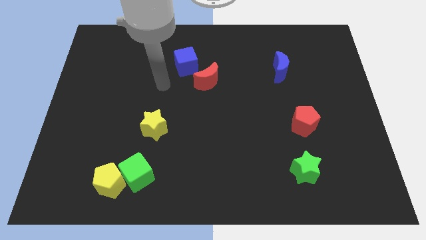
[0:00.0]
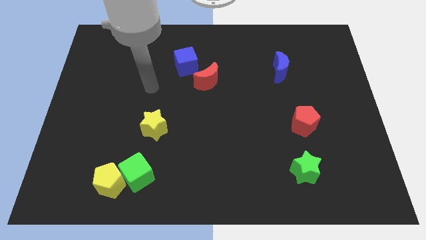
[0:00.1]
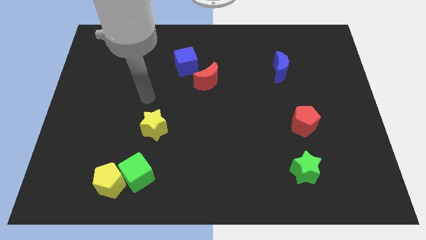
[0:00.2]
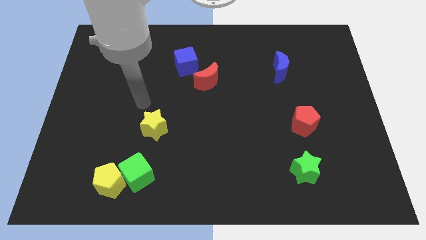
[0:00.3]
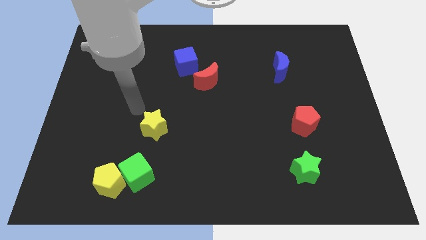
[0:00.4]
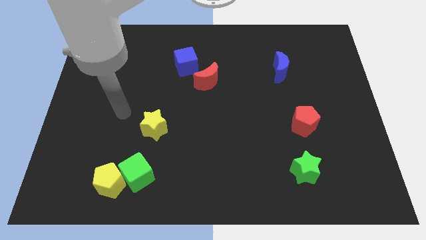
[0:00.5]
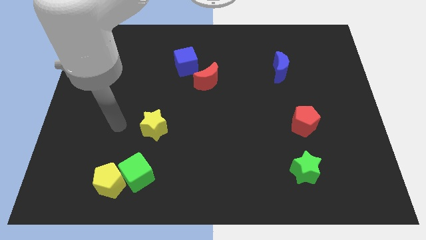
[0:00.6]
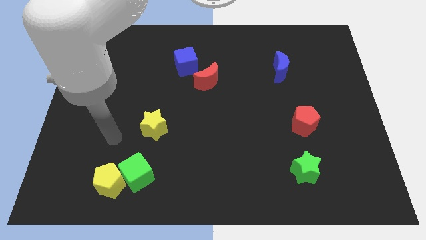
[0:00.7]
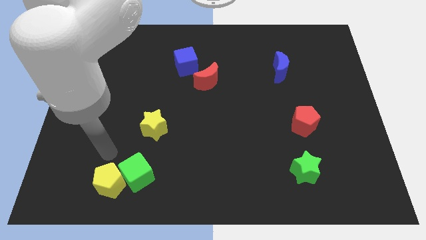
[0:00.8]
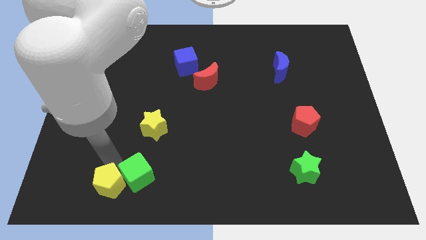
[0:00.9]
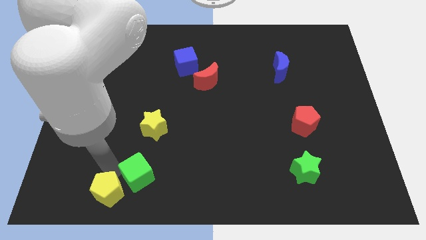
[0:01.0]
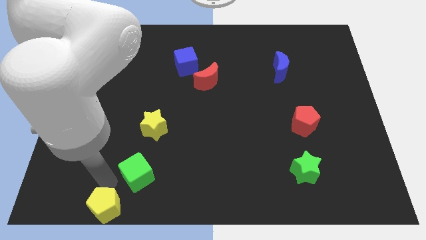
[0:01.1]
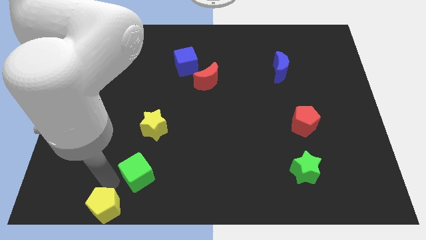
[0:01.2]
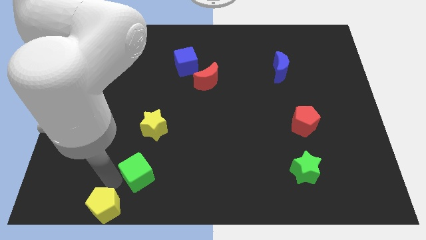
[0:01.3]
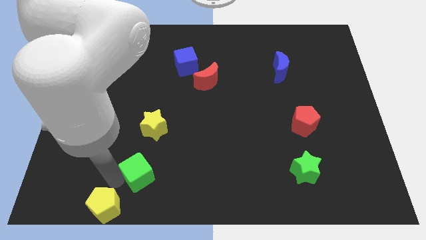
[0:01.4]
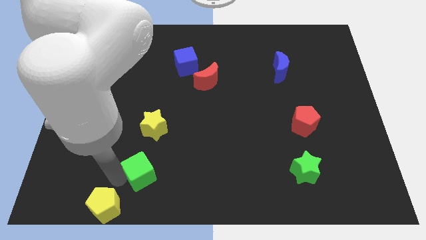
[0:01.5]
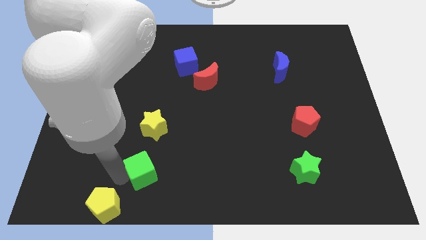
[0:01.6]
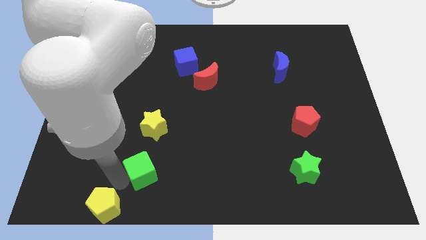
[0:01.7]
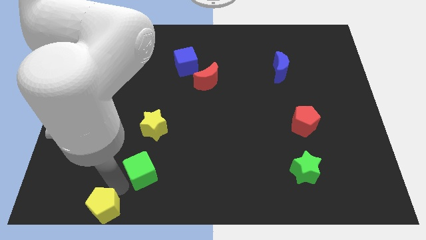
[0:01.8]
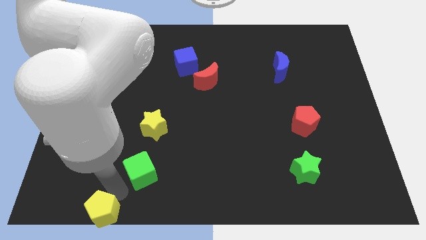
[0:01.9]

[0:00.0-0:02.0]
move the green cube away from the yellow pentagon

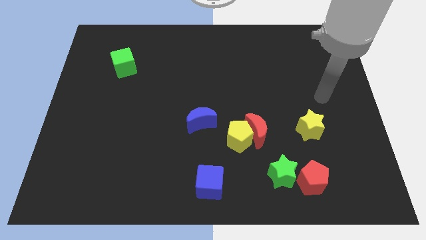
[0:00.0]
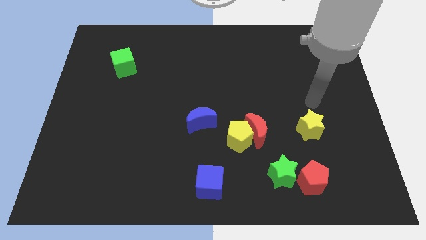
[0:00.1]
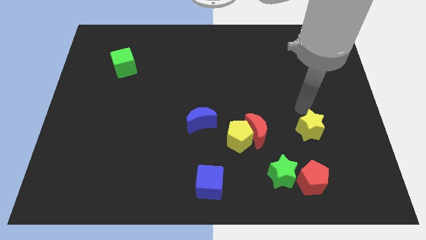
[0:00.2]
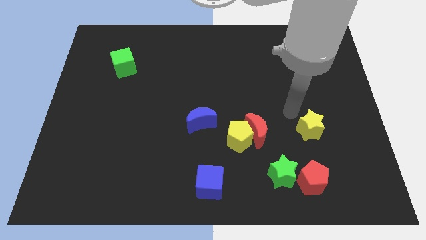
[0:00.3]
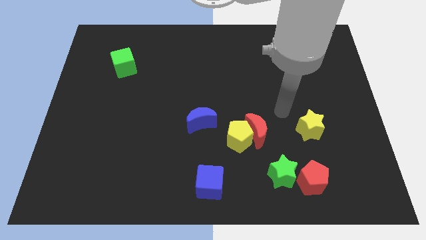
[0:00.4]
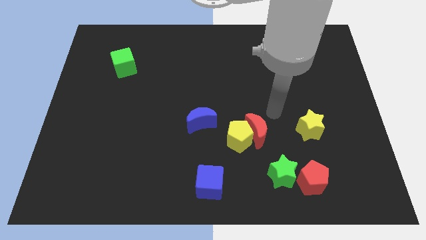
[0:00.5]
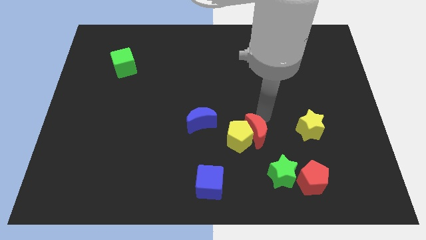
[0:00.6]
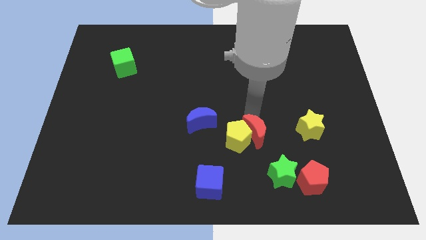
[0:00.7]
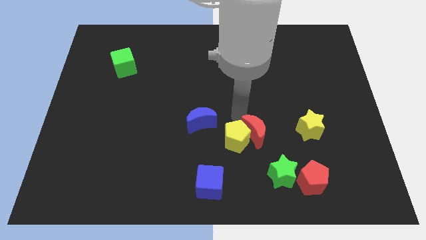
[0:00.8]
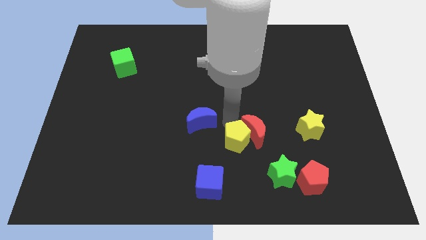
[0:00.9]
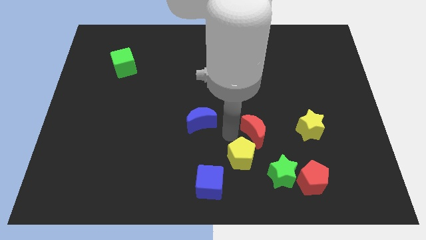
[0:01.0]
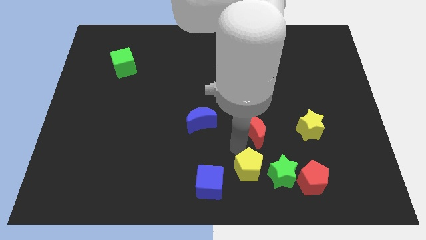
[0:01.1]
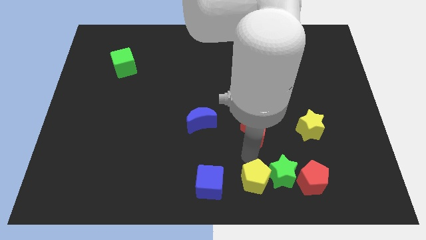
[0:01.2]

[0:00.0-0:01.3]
separate the red moon from the yellow pentagon

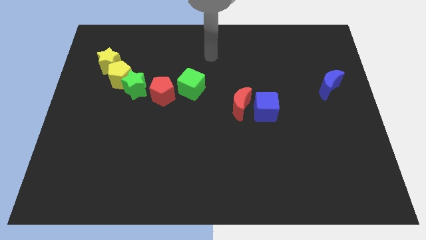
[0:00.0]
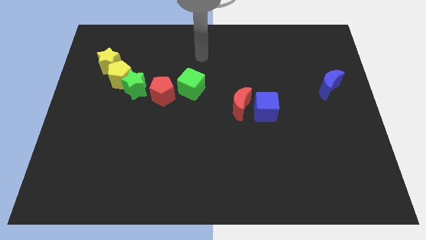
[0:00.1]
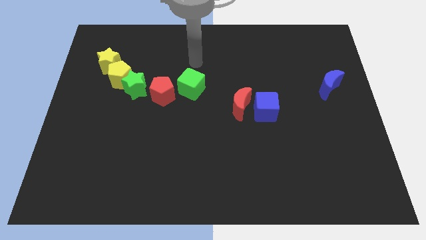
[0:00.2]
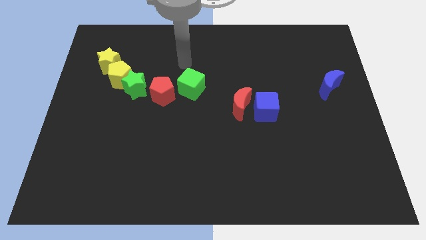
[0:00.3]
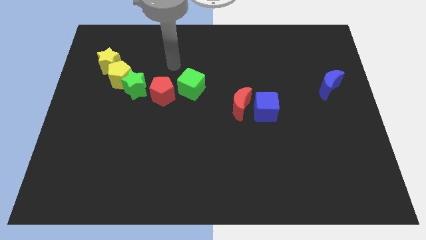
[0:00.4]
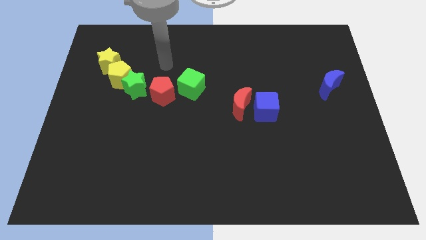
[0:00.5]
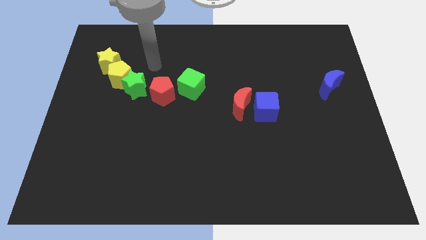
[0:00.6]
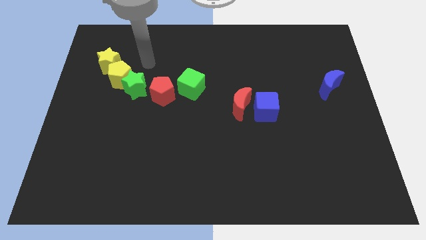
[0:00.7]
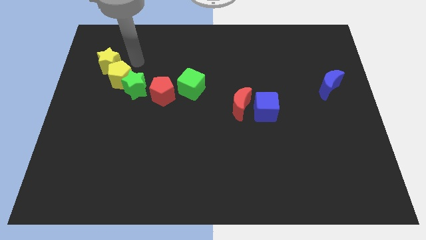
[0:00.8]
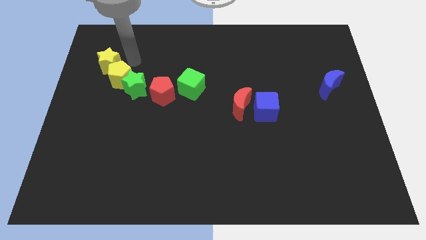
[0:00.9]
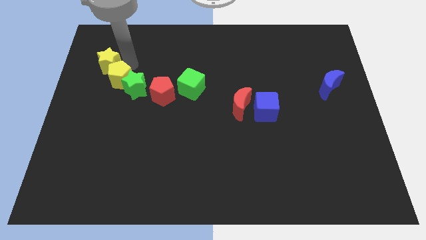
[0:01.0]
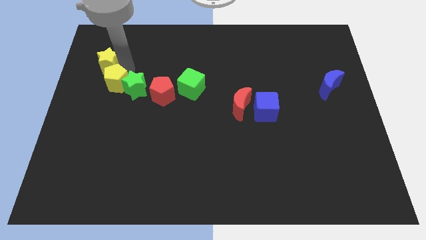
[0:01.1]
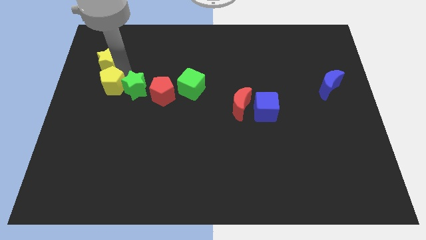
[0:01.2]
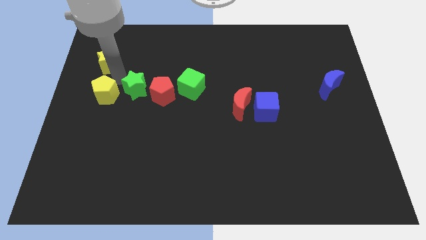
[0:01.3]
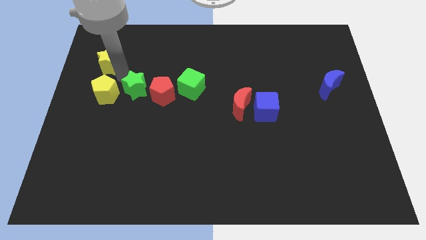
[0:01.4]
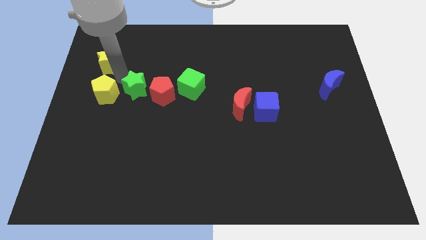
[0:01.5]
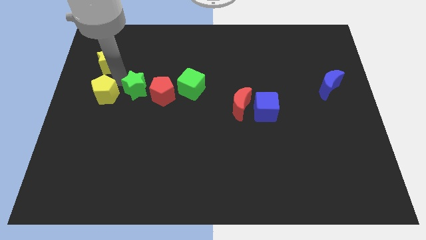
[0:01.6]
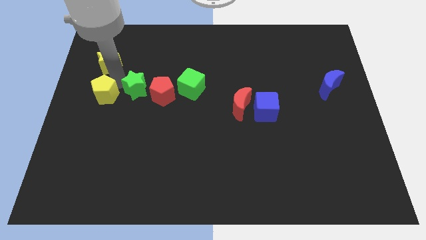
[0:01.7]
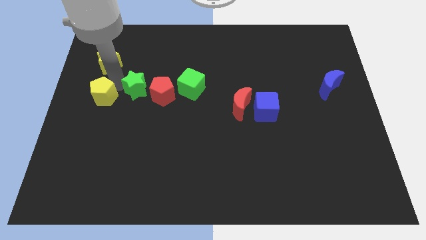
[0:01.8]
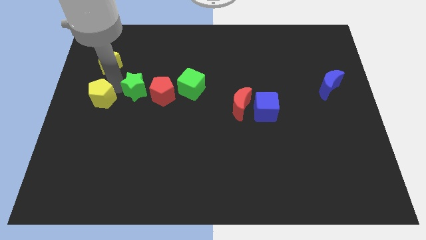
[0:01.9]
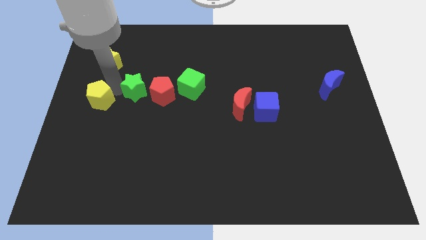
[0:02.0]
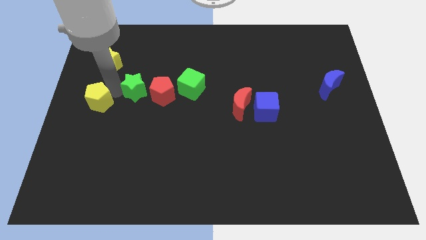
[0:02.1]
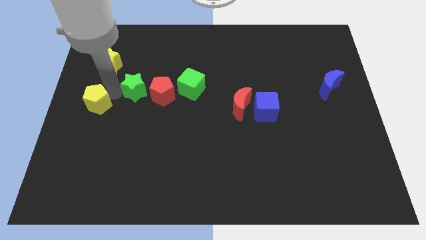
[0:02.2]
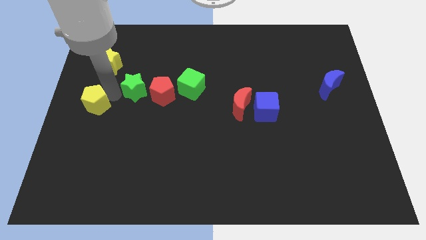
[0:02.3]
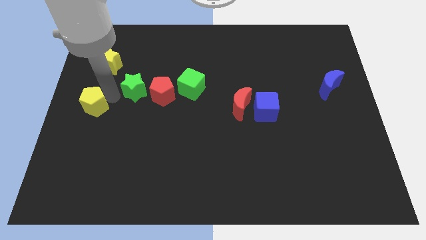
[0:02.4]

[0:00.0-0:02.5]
separate the yellow pentagon from the green star and yellow star

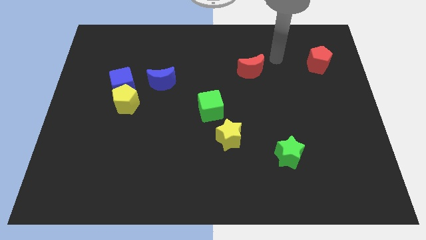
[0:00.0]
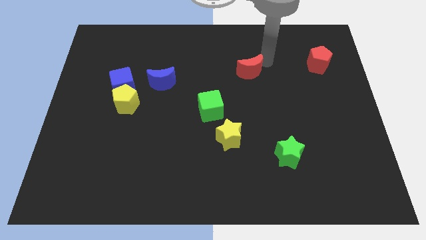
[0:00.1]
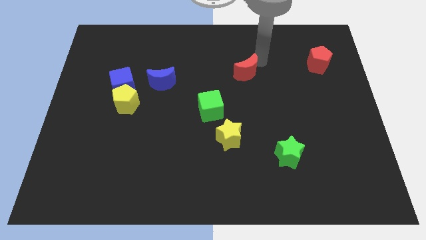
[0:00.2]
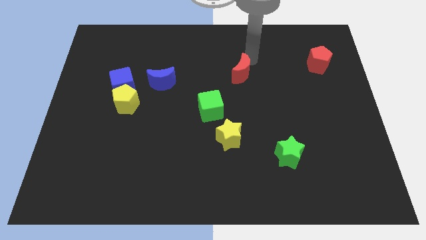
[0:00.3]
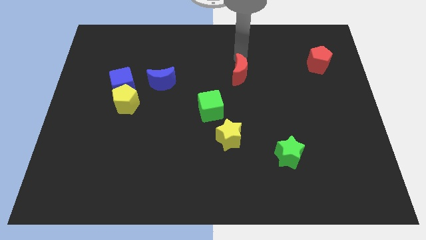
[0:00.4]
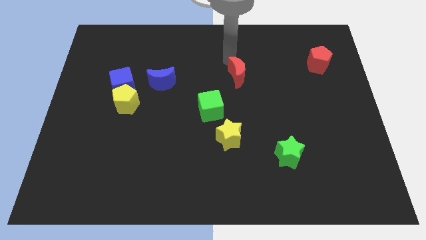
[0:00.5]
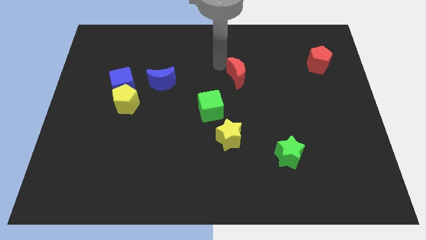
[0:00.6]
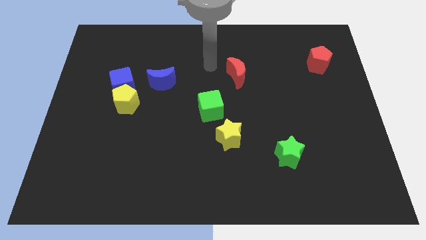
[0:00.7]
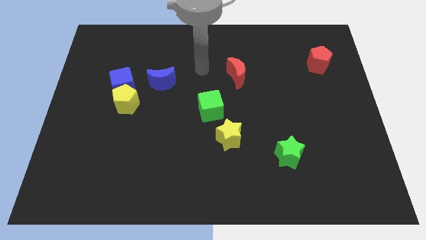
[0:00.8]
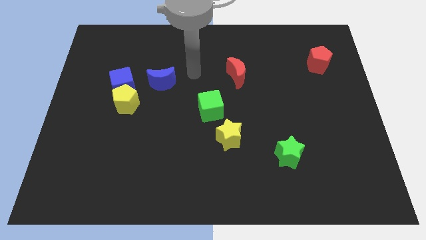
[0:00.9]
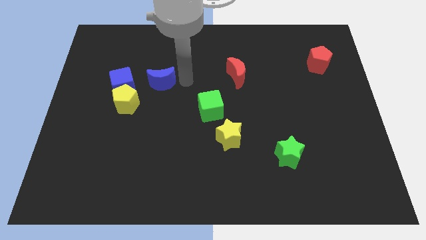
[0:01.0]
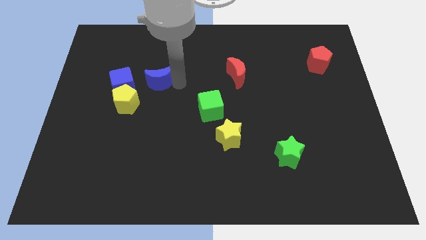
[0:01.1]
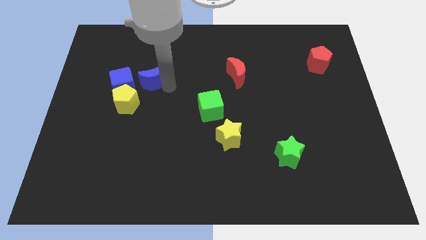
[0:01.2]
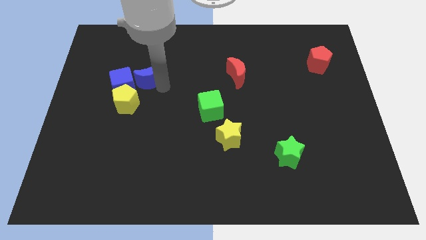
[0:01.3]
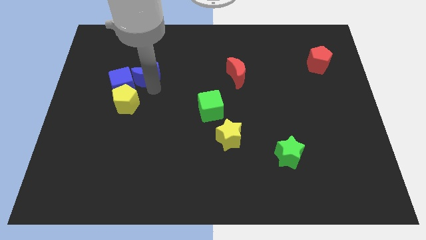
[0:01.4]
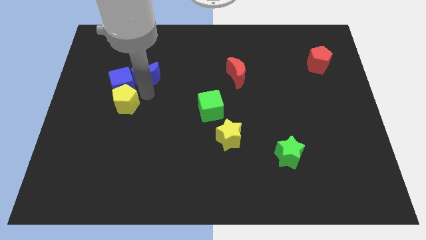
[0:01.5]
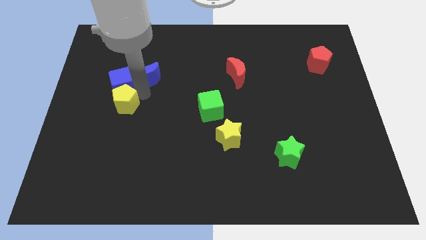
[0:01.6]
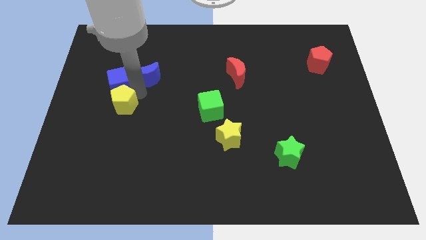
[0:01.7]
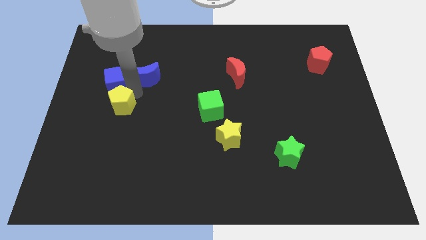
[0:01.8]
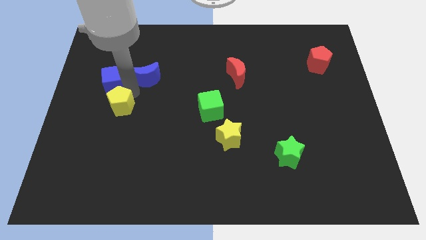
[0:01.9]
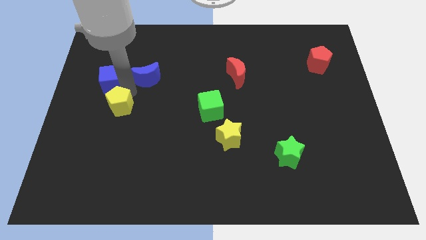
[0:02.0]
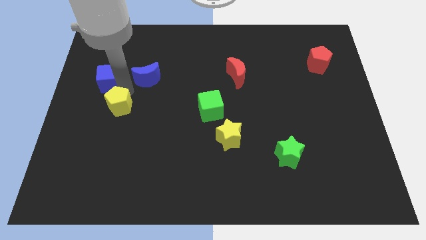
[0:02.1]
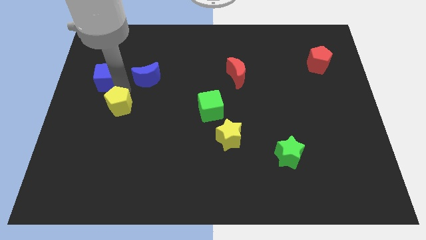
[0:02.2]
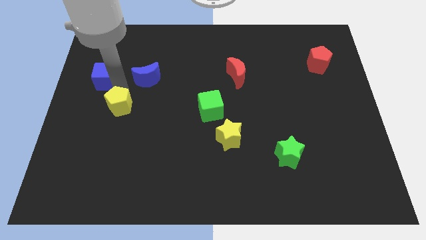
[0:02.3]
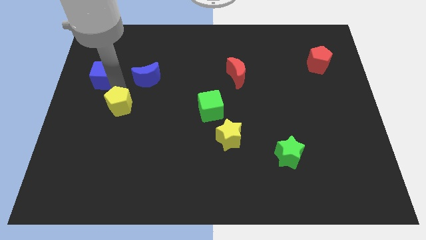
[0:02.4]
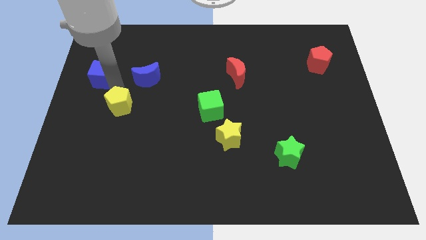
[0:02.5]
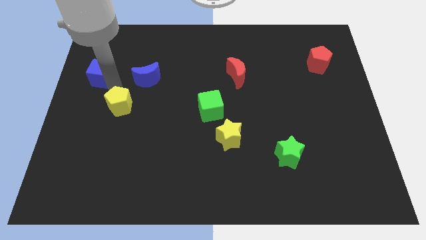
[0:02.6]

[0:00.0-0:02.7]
pull the blue cube apart from the yellow pentagon and blue moon

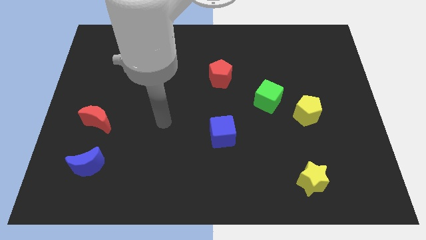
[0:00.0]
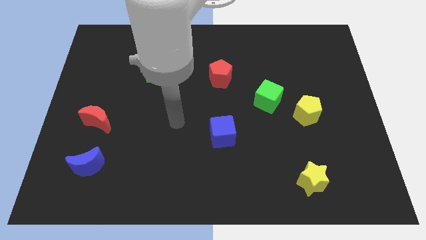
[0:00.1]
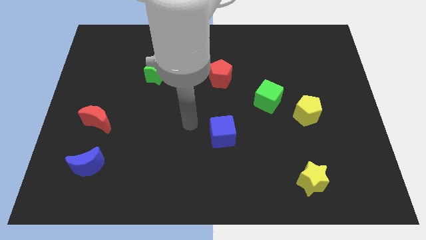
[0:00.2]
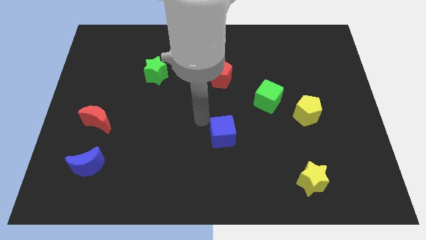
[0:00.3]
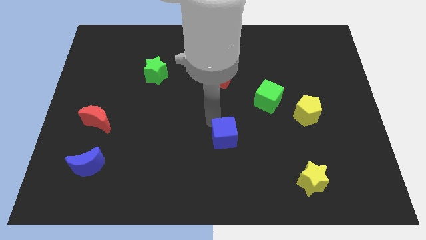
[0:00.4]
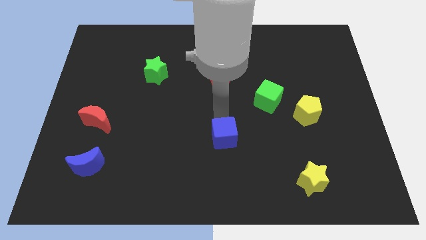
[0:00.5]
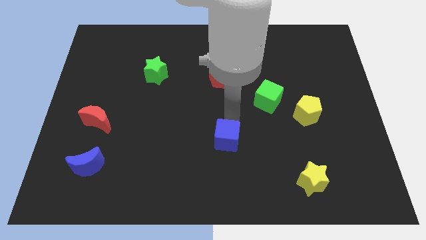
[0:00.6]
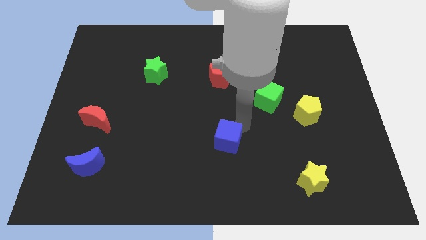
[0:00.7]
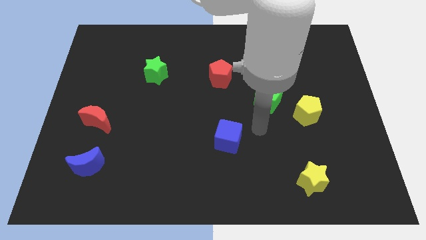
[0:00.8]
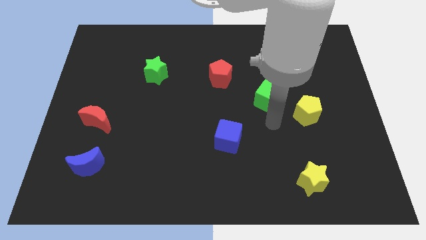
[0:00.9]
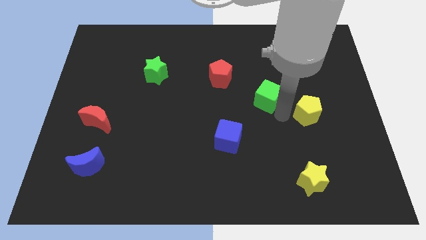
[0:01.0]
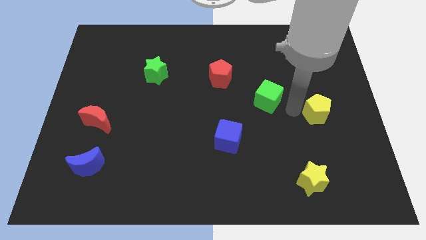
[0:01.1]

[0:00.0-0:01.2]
separate the green cube from the yellow pentagon
